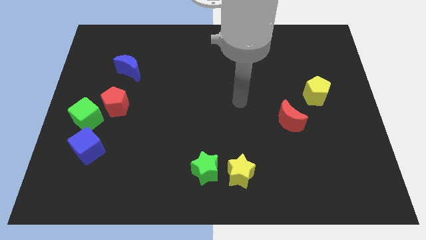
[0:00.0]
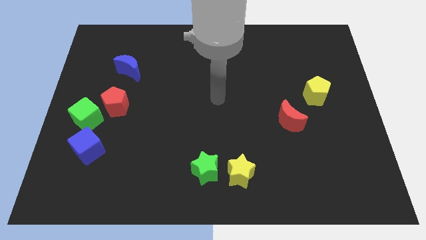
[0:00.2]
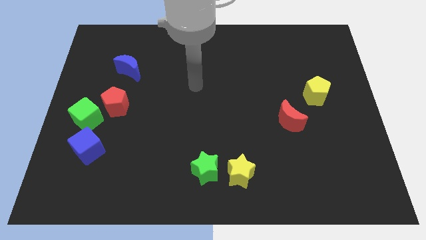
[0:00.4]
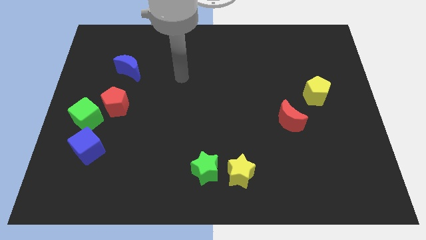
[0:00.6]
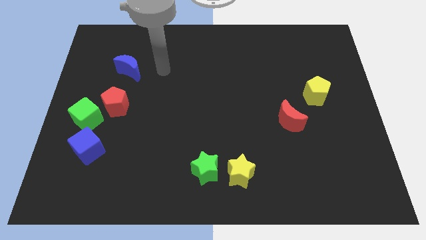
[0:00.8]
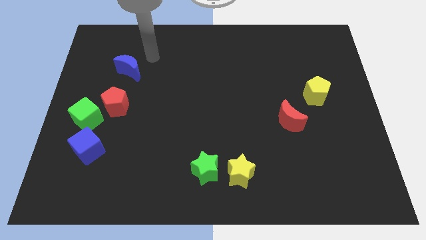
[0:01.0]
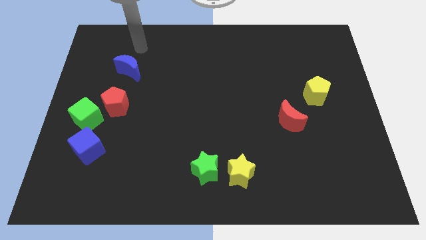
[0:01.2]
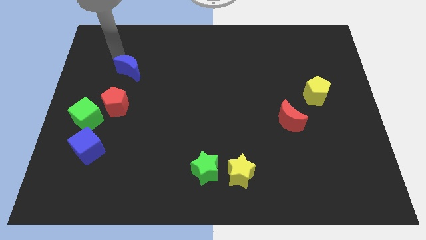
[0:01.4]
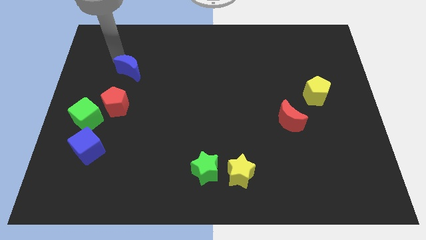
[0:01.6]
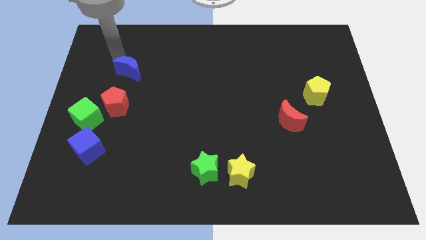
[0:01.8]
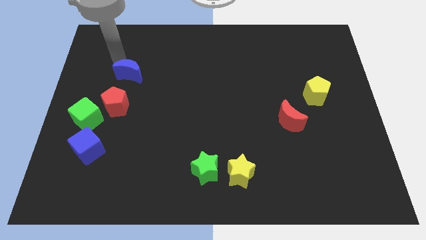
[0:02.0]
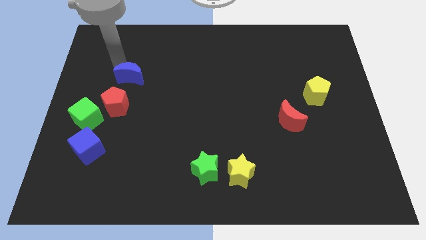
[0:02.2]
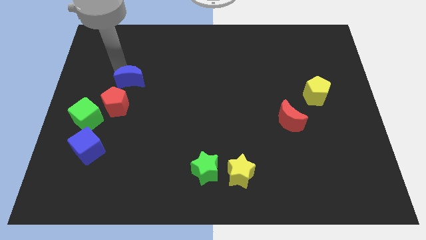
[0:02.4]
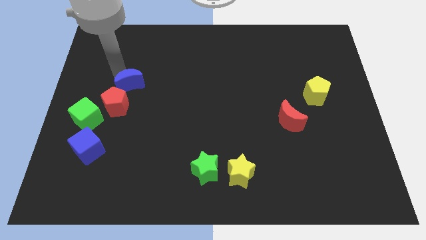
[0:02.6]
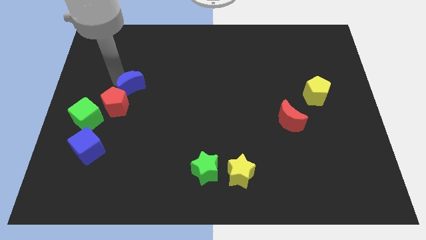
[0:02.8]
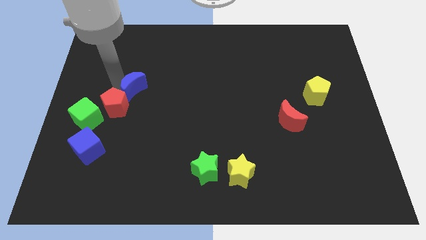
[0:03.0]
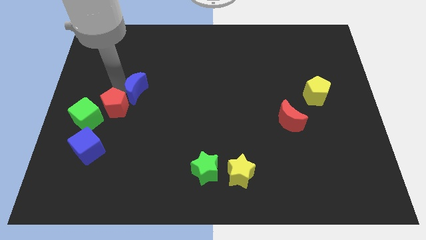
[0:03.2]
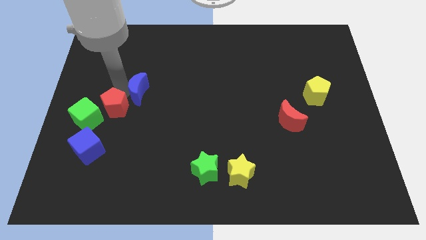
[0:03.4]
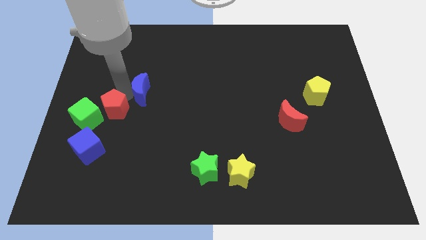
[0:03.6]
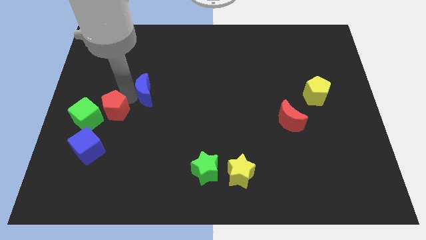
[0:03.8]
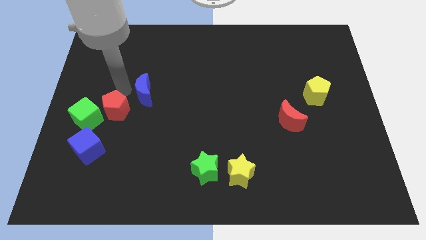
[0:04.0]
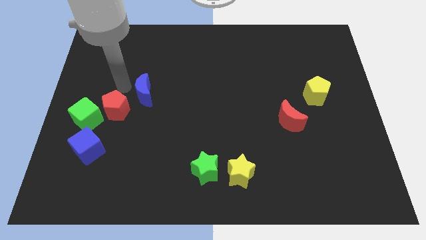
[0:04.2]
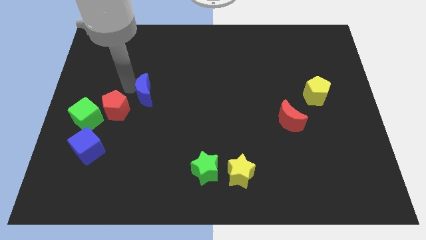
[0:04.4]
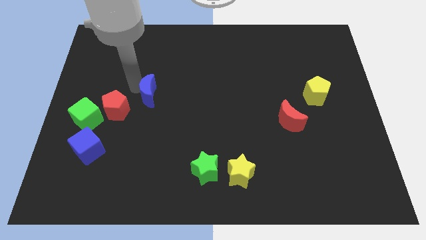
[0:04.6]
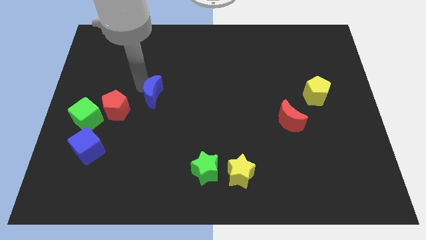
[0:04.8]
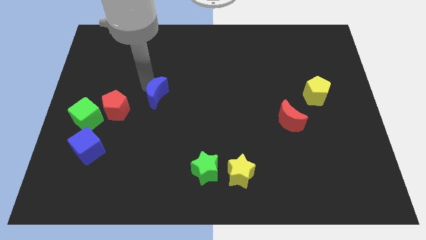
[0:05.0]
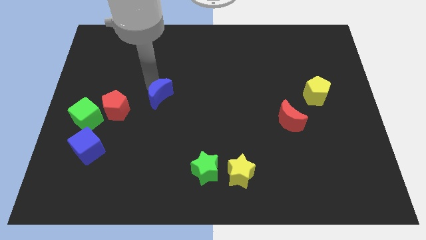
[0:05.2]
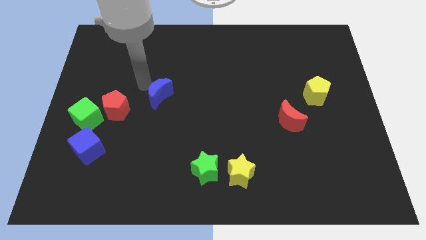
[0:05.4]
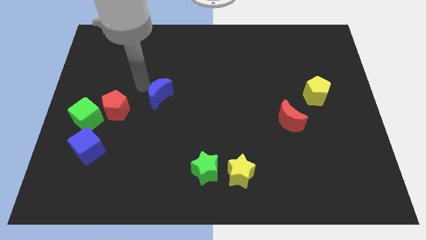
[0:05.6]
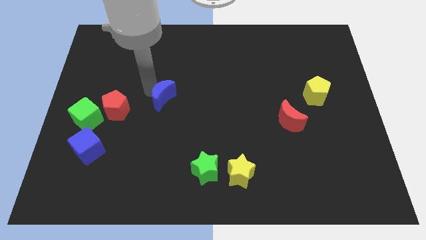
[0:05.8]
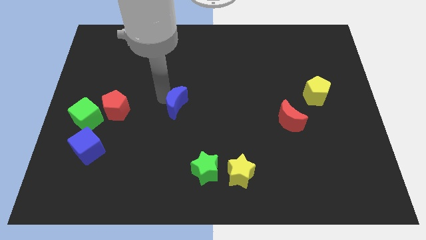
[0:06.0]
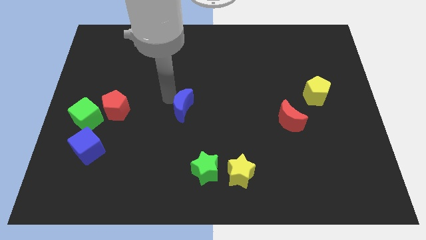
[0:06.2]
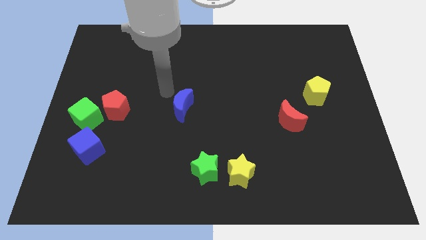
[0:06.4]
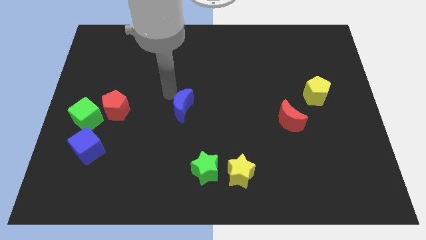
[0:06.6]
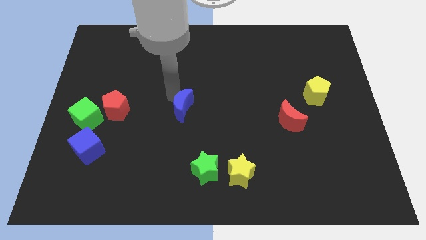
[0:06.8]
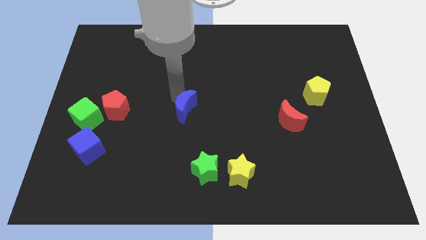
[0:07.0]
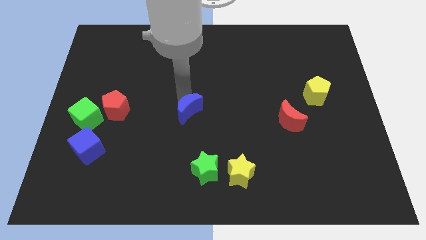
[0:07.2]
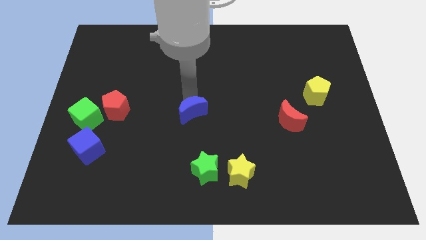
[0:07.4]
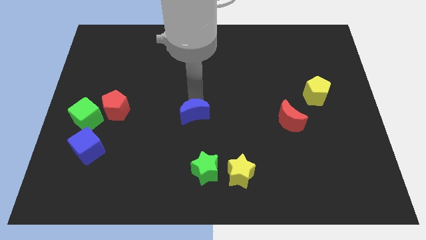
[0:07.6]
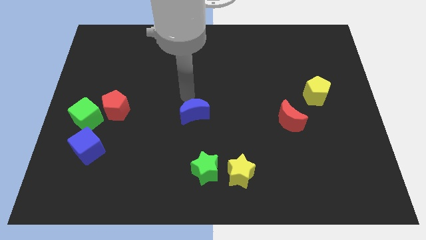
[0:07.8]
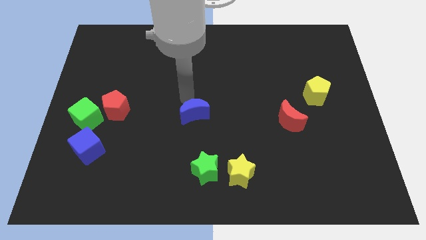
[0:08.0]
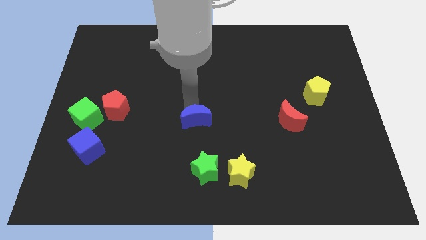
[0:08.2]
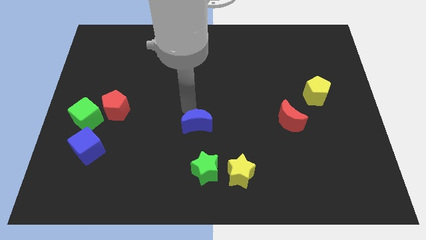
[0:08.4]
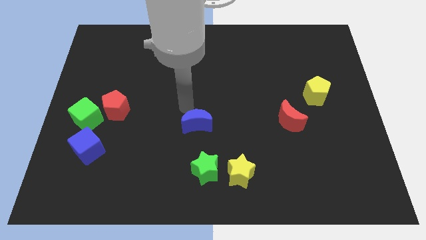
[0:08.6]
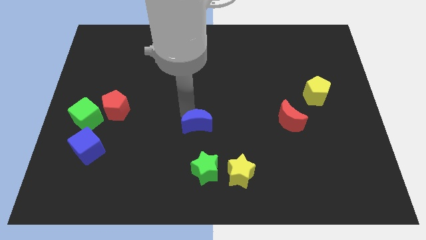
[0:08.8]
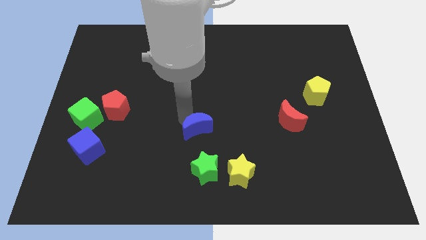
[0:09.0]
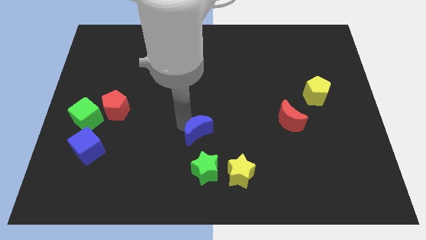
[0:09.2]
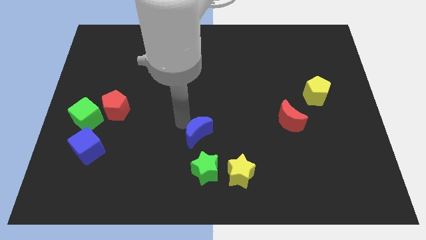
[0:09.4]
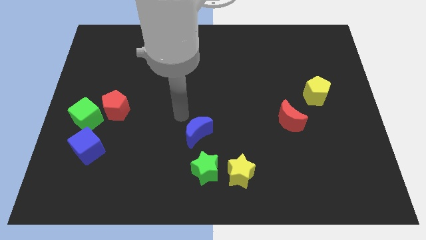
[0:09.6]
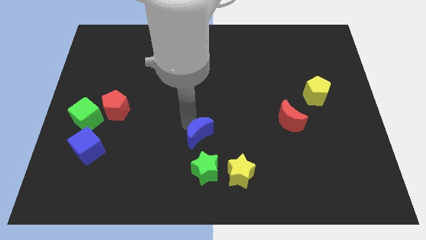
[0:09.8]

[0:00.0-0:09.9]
push the blue moon to the top left side of the yellow star

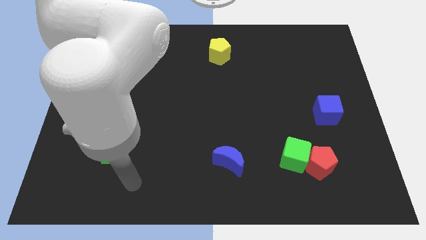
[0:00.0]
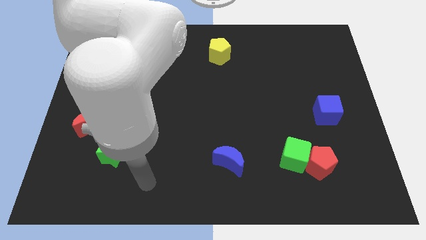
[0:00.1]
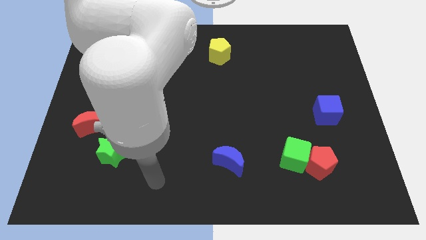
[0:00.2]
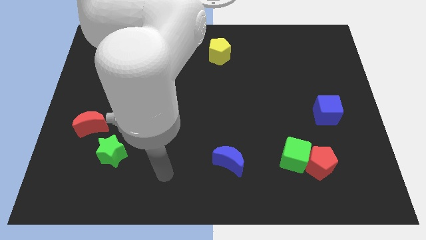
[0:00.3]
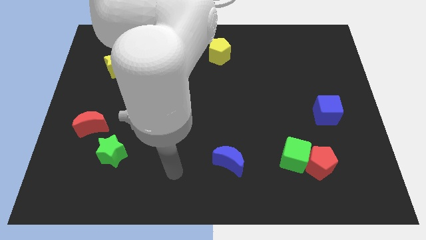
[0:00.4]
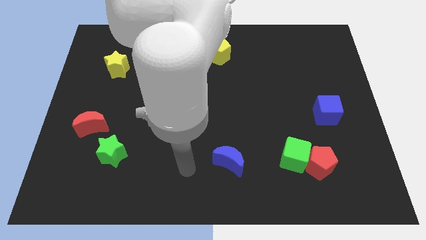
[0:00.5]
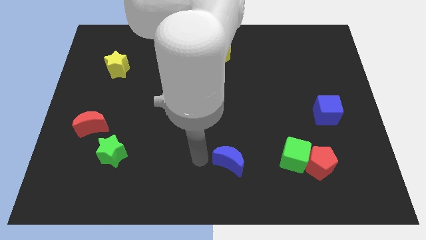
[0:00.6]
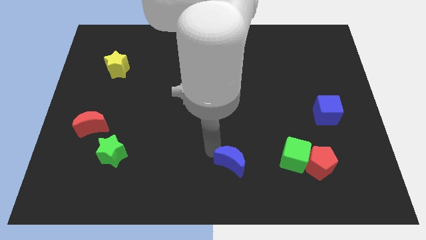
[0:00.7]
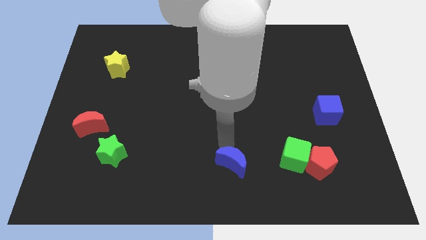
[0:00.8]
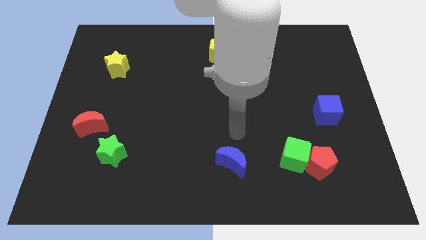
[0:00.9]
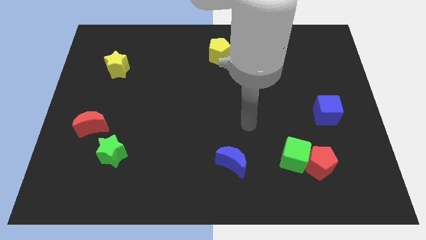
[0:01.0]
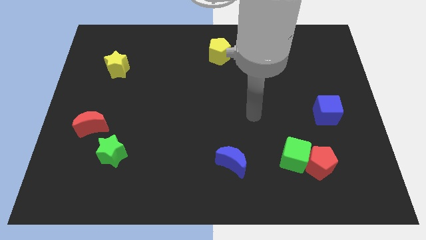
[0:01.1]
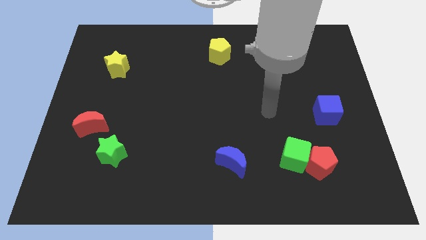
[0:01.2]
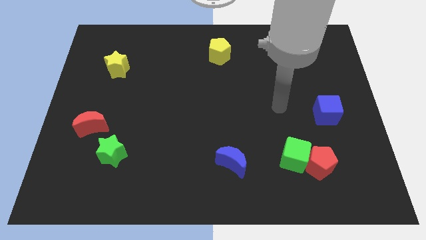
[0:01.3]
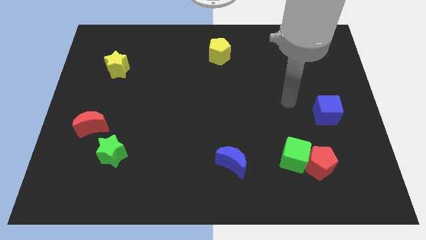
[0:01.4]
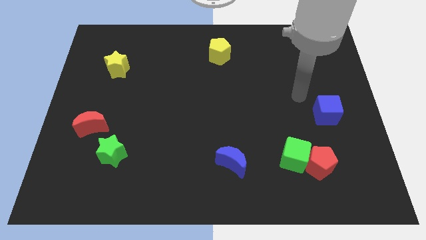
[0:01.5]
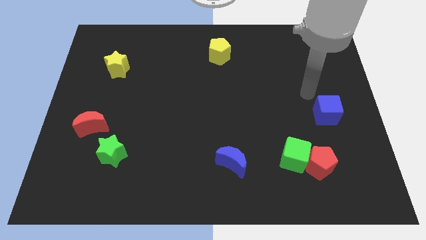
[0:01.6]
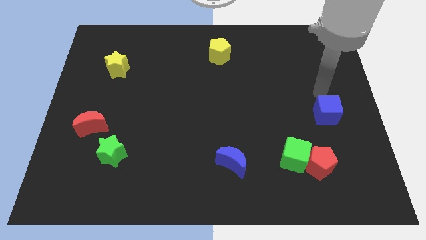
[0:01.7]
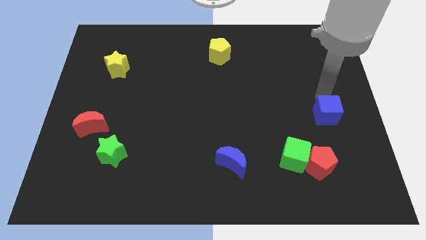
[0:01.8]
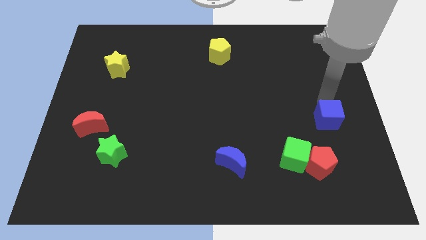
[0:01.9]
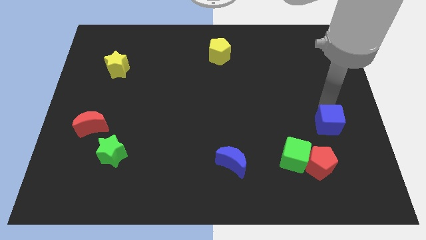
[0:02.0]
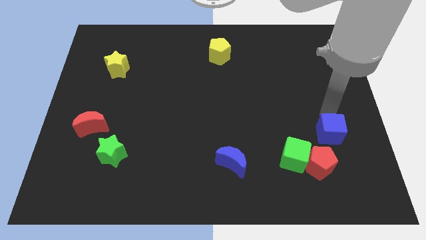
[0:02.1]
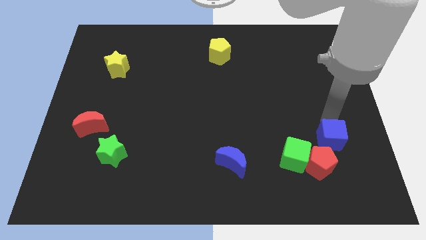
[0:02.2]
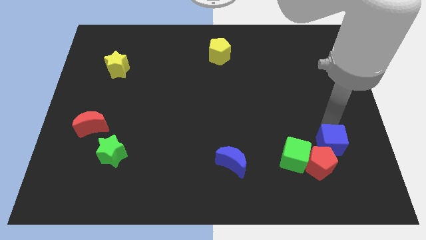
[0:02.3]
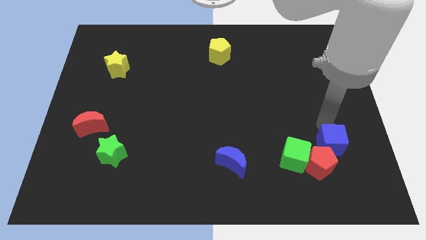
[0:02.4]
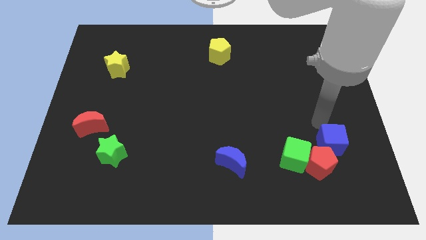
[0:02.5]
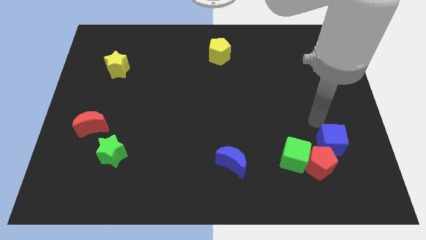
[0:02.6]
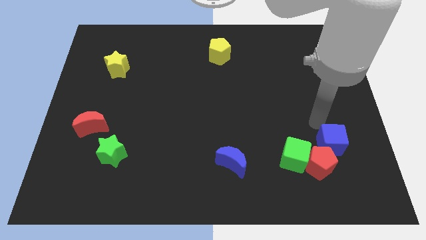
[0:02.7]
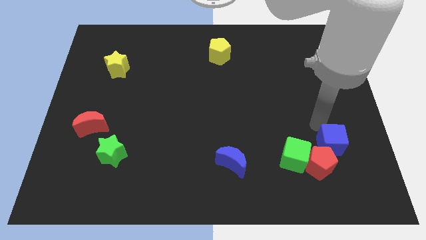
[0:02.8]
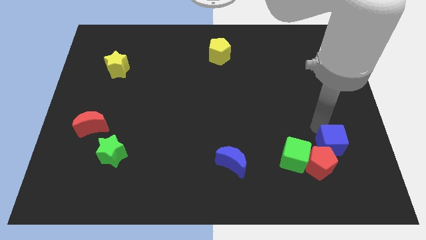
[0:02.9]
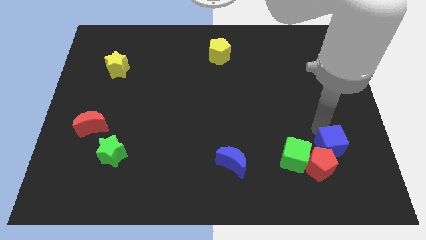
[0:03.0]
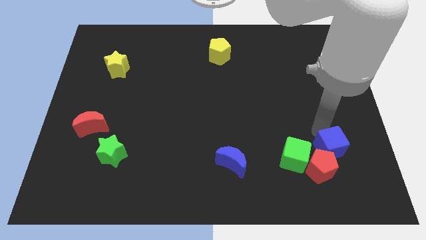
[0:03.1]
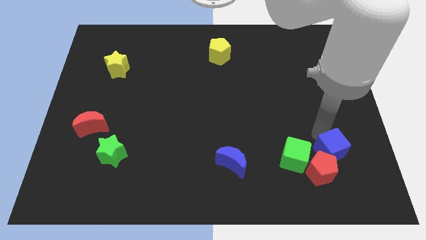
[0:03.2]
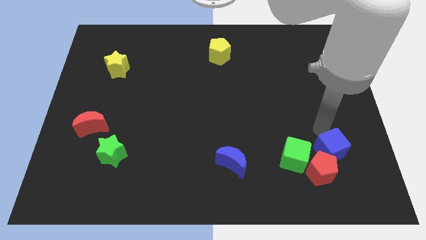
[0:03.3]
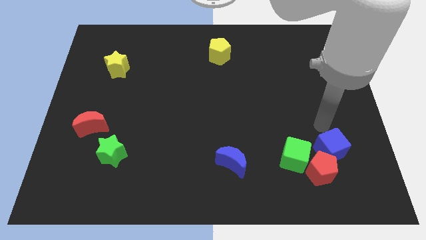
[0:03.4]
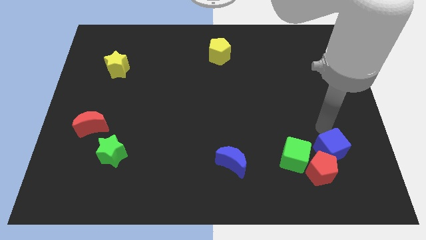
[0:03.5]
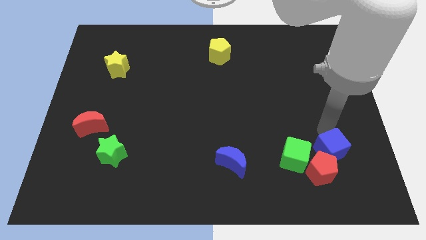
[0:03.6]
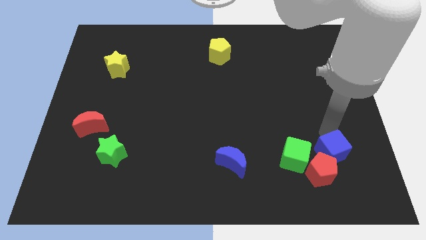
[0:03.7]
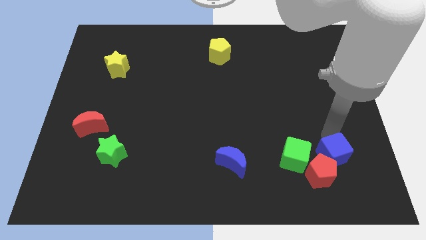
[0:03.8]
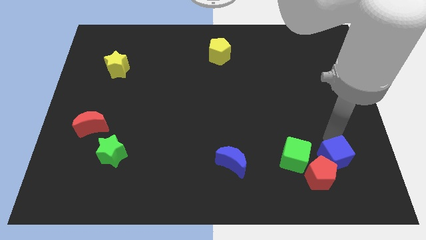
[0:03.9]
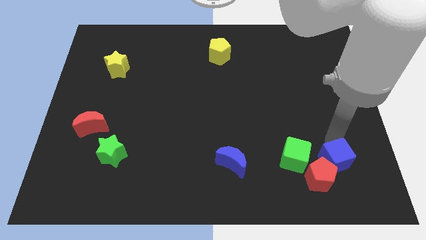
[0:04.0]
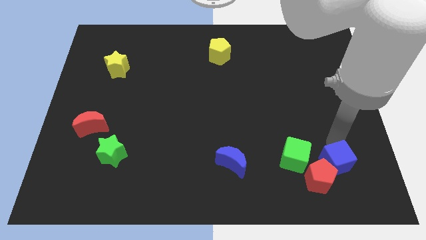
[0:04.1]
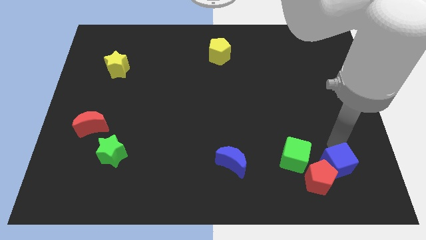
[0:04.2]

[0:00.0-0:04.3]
push the blue cube diagonally down and to the right of the green cube
